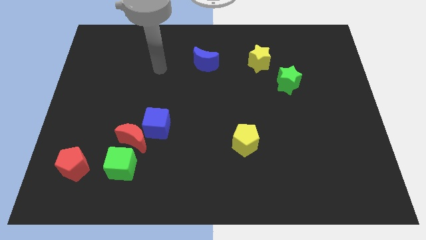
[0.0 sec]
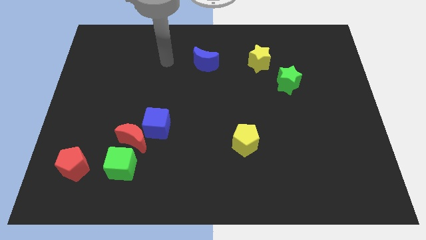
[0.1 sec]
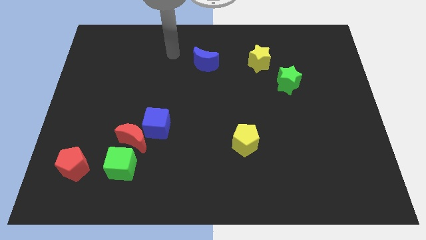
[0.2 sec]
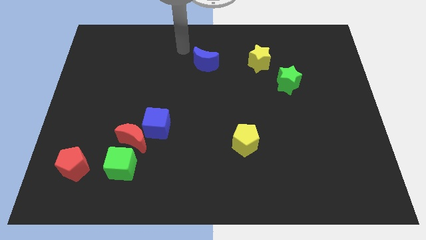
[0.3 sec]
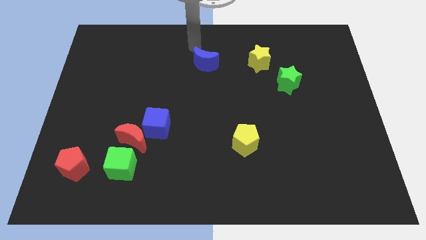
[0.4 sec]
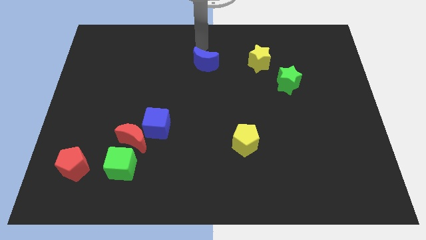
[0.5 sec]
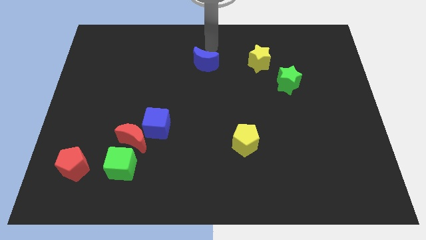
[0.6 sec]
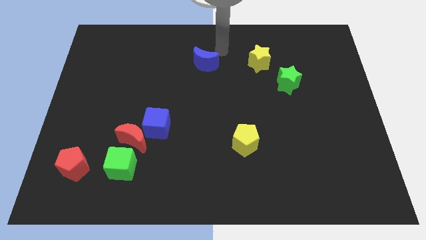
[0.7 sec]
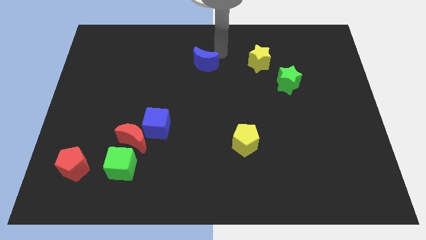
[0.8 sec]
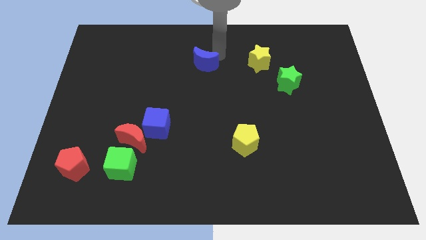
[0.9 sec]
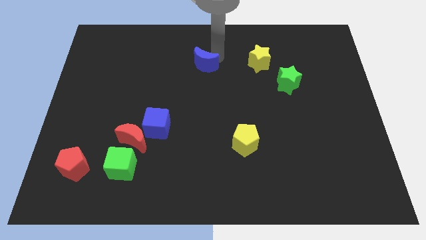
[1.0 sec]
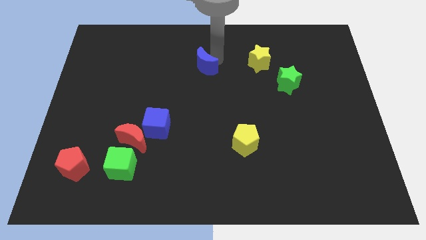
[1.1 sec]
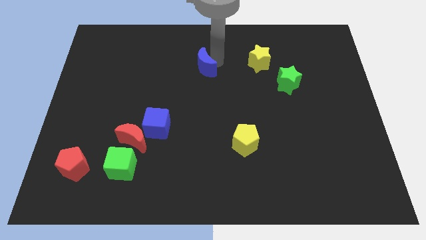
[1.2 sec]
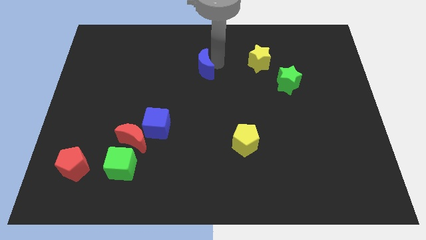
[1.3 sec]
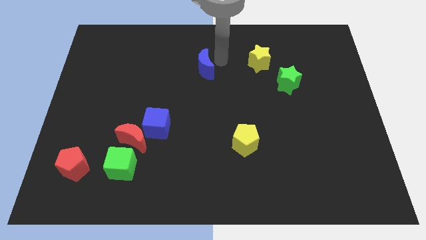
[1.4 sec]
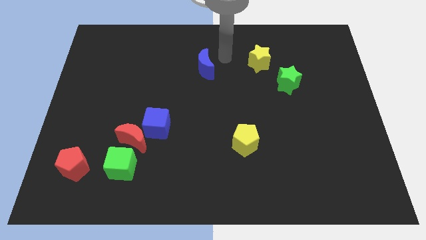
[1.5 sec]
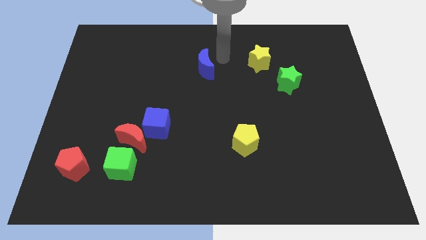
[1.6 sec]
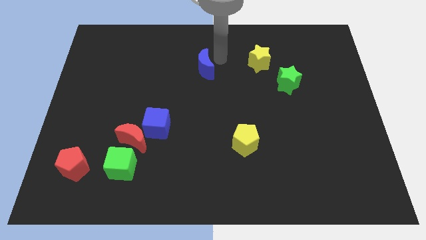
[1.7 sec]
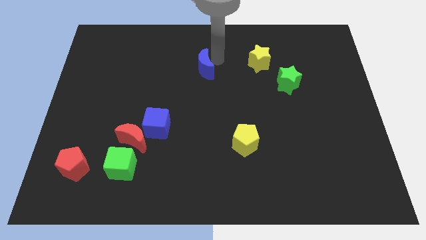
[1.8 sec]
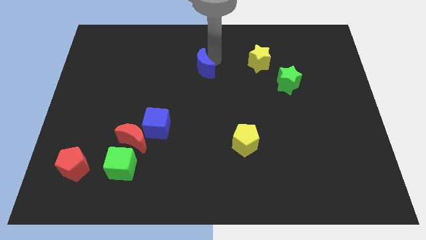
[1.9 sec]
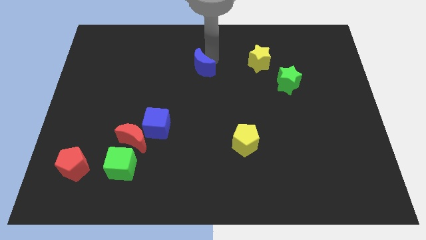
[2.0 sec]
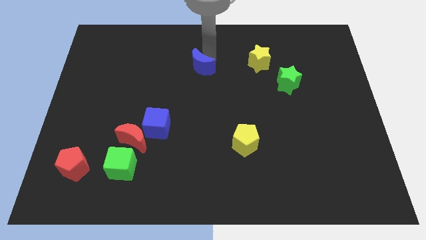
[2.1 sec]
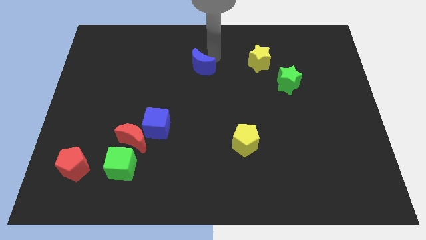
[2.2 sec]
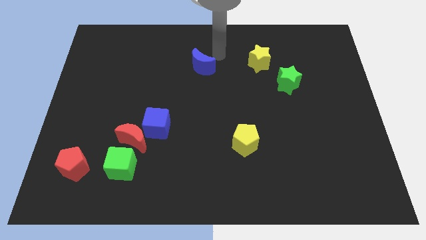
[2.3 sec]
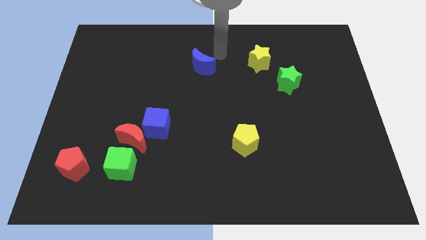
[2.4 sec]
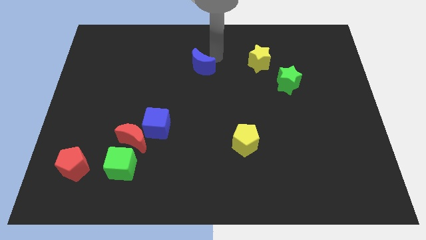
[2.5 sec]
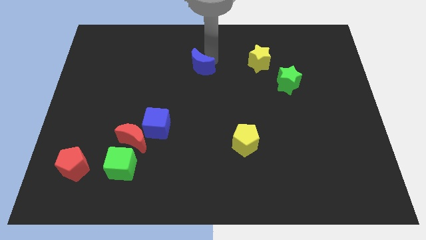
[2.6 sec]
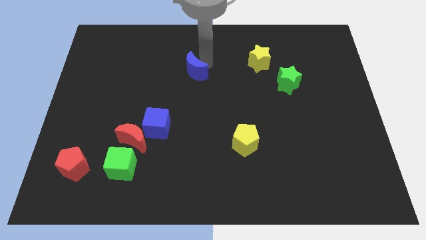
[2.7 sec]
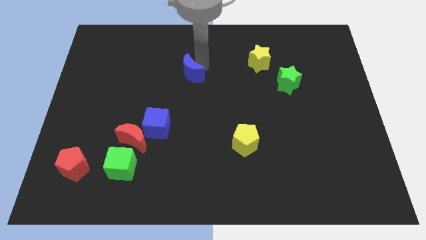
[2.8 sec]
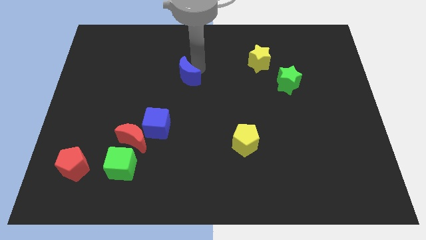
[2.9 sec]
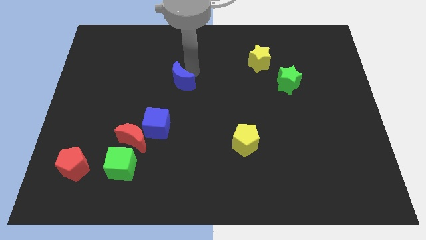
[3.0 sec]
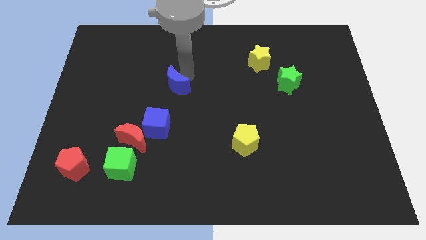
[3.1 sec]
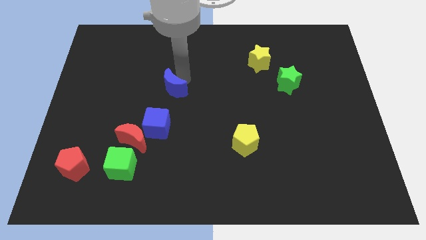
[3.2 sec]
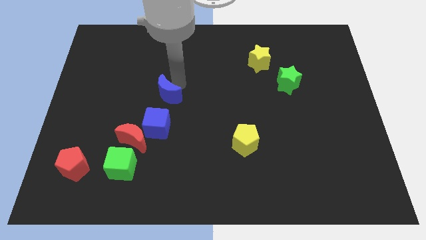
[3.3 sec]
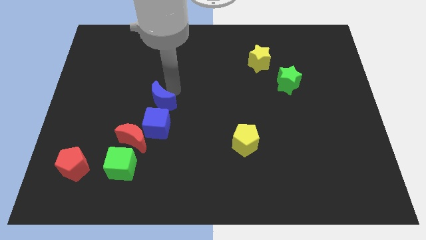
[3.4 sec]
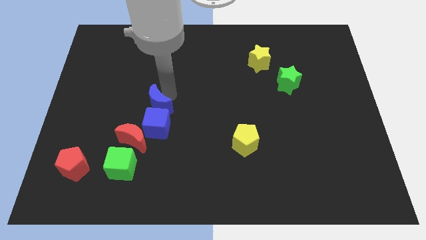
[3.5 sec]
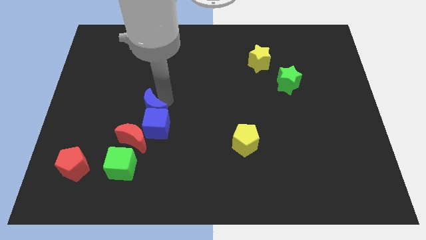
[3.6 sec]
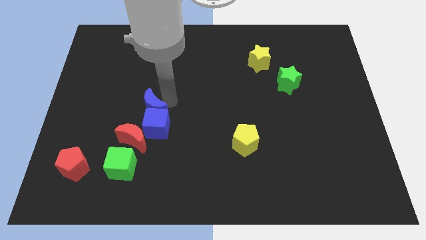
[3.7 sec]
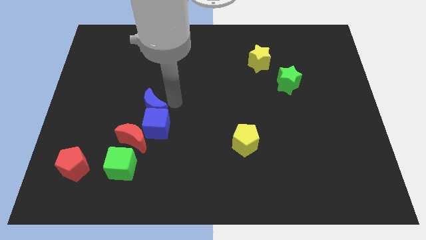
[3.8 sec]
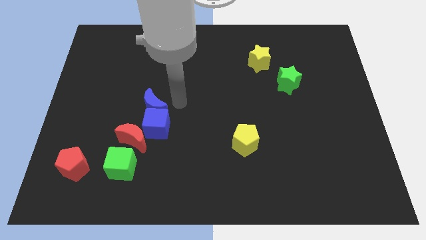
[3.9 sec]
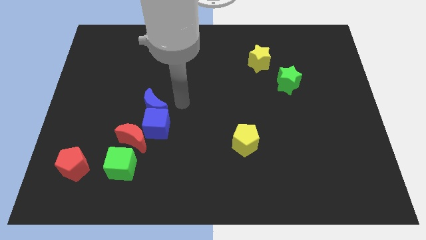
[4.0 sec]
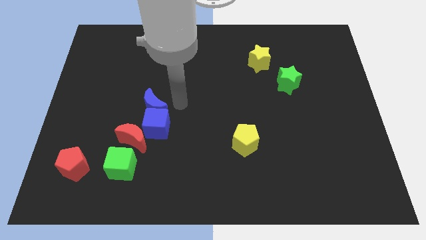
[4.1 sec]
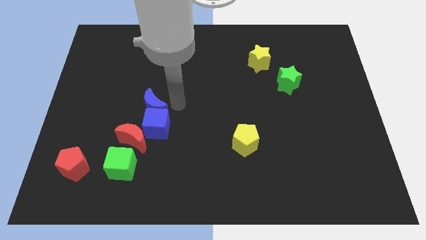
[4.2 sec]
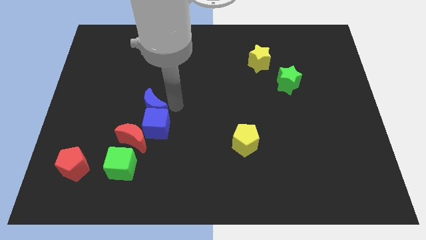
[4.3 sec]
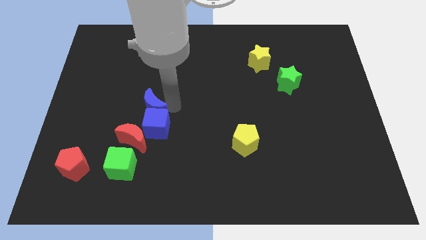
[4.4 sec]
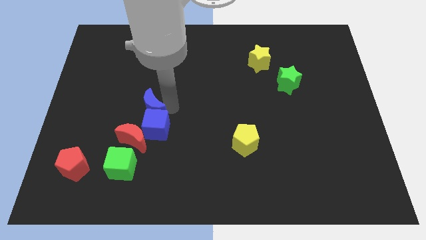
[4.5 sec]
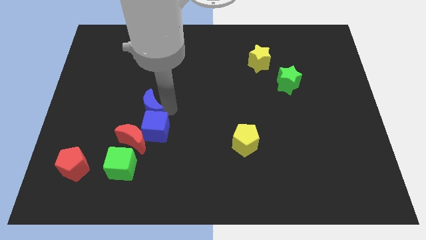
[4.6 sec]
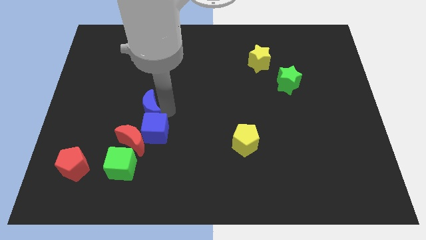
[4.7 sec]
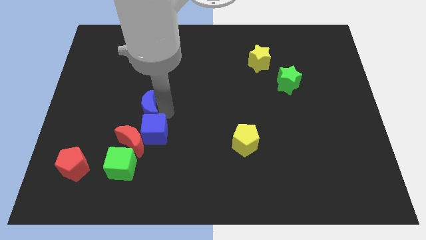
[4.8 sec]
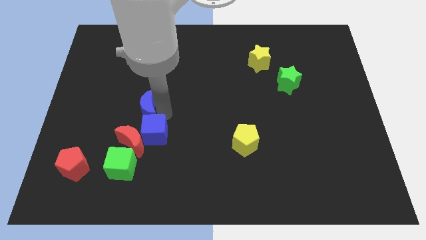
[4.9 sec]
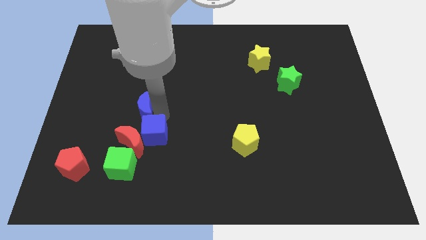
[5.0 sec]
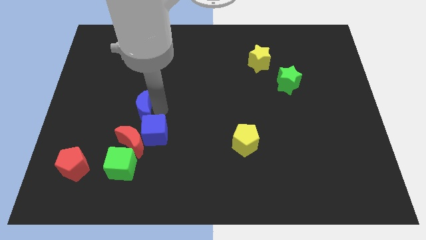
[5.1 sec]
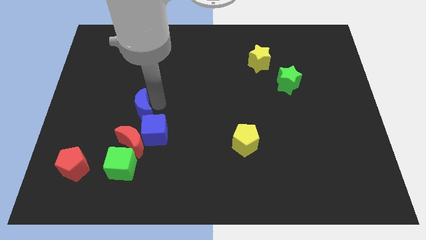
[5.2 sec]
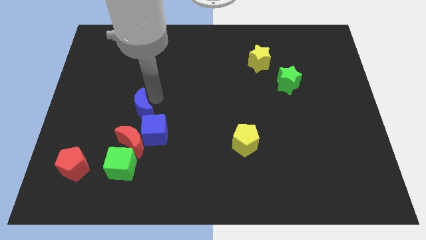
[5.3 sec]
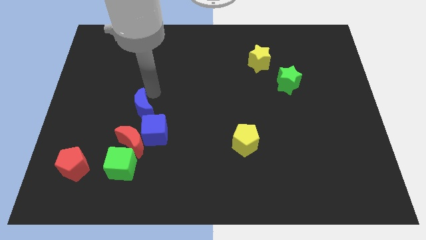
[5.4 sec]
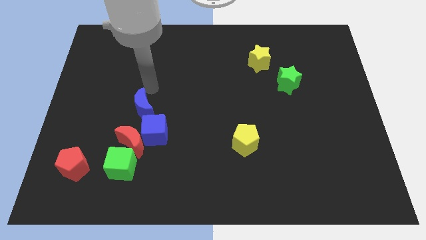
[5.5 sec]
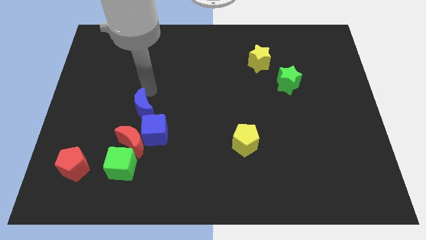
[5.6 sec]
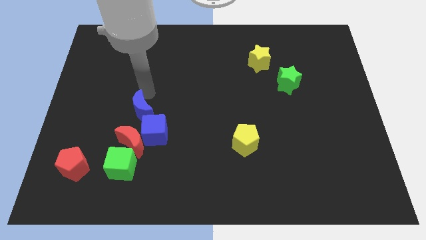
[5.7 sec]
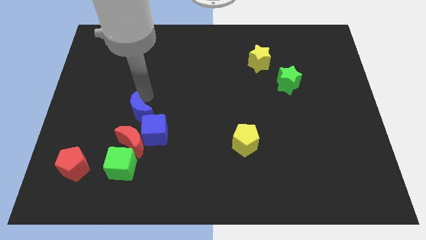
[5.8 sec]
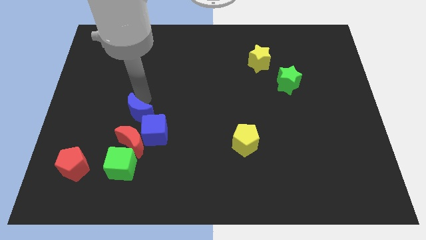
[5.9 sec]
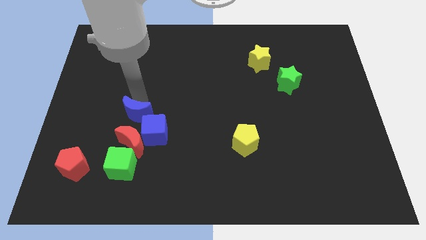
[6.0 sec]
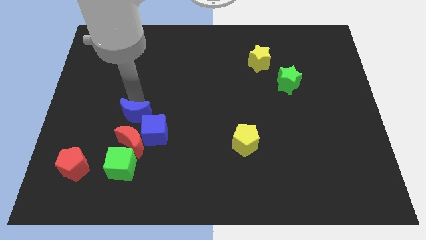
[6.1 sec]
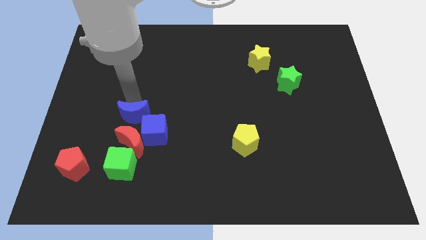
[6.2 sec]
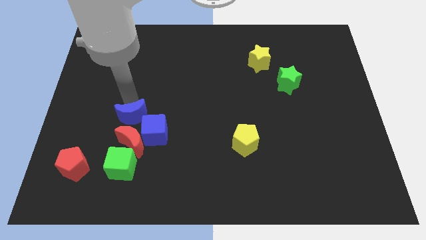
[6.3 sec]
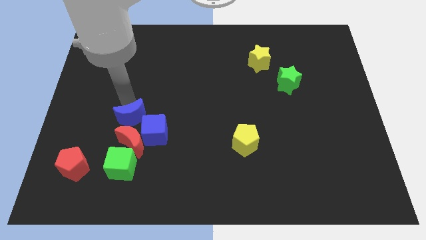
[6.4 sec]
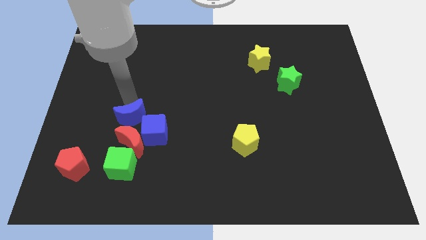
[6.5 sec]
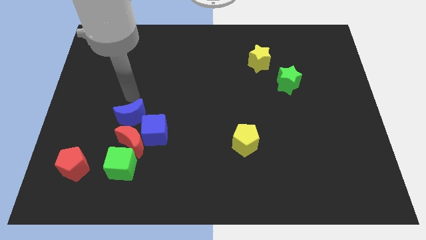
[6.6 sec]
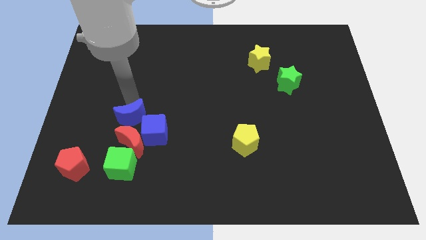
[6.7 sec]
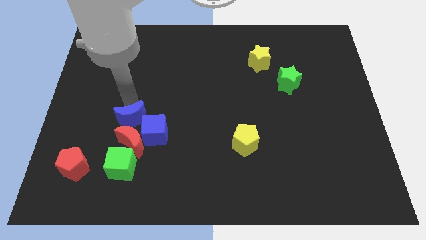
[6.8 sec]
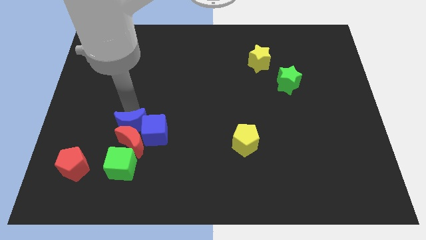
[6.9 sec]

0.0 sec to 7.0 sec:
push the blue moon close to the red moon

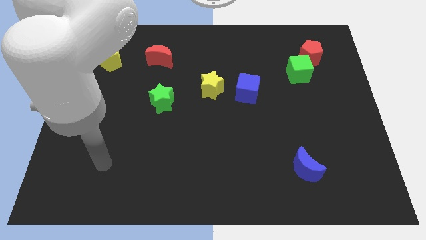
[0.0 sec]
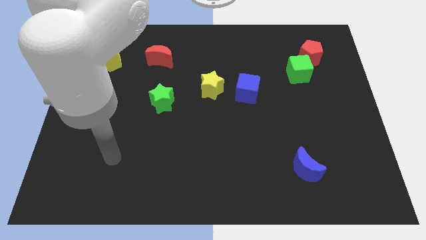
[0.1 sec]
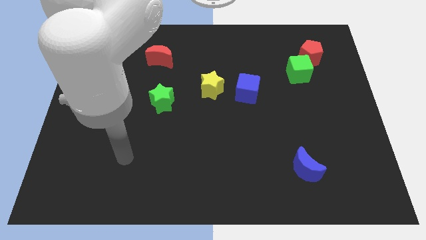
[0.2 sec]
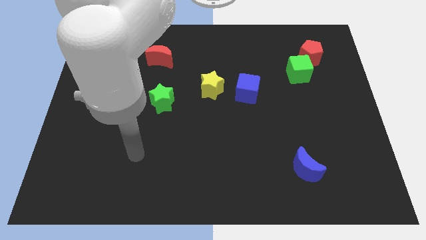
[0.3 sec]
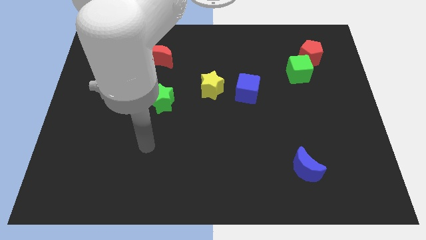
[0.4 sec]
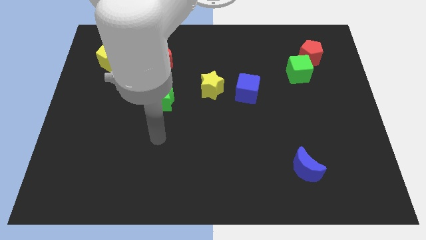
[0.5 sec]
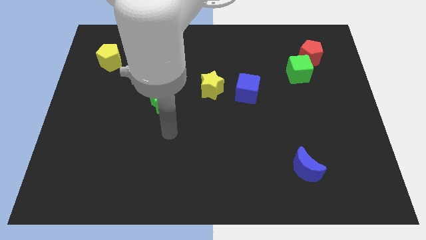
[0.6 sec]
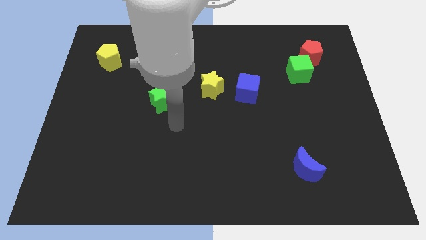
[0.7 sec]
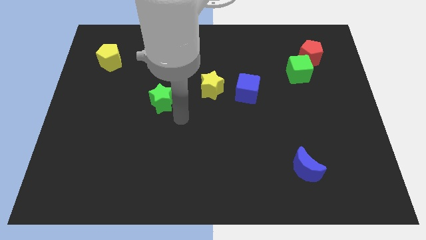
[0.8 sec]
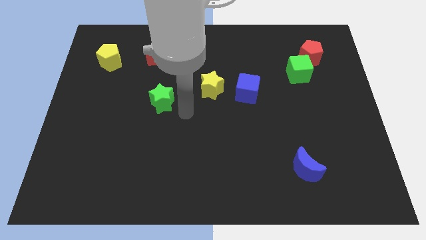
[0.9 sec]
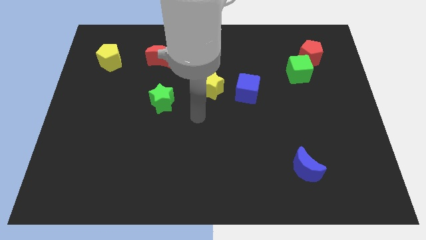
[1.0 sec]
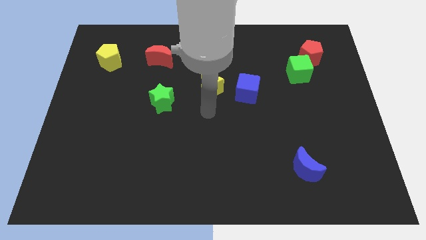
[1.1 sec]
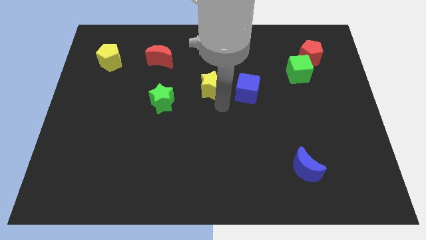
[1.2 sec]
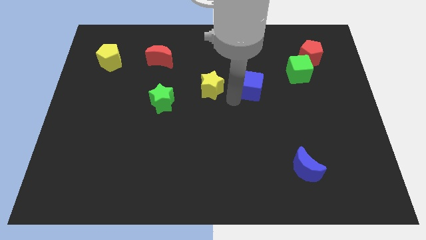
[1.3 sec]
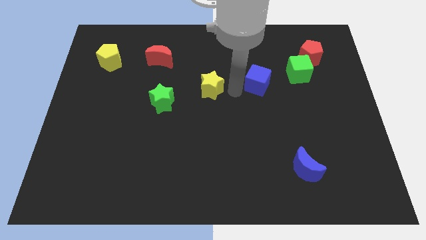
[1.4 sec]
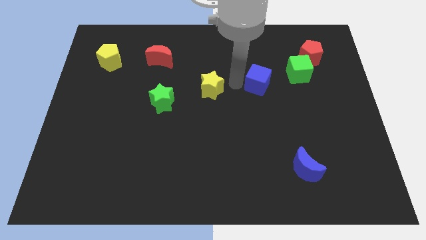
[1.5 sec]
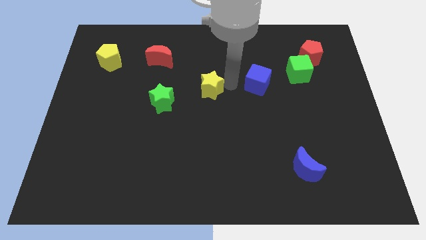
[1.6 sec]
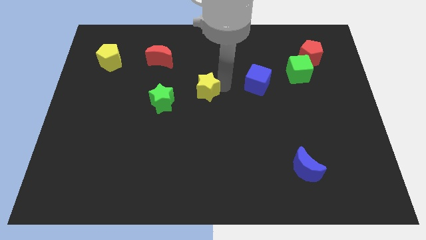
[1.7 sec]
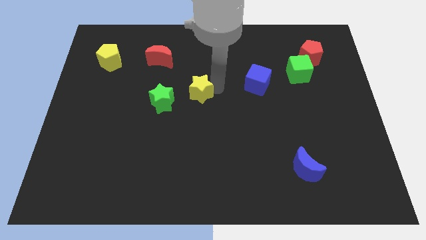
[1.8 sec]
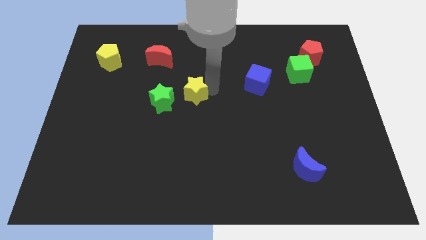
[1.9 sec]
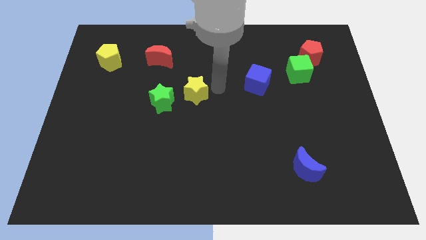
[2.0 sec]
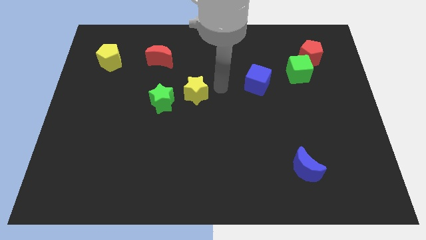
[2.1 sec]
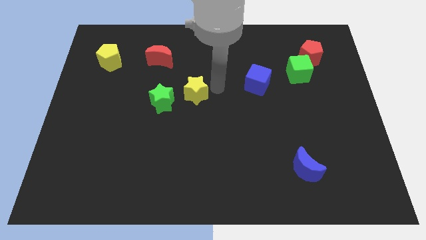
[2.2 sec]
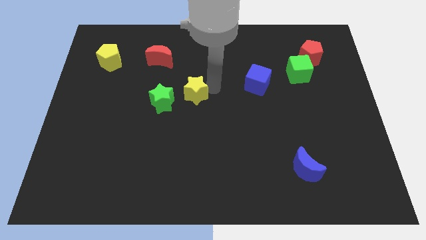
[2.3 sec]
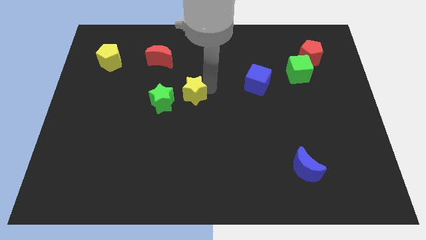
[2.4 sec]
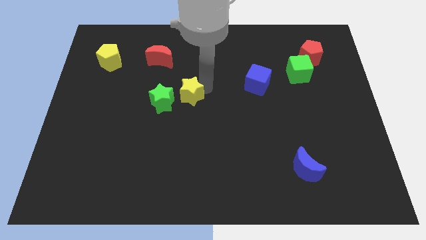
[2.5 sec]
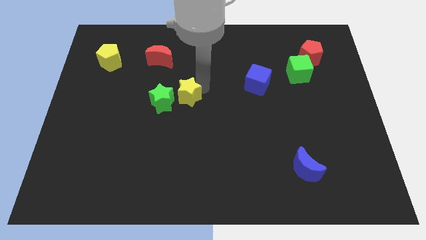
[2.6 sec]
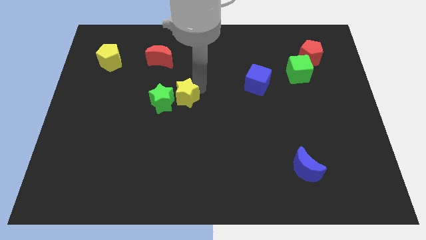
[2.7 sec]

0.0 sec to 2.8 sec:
push the yellow star next to the green star
